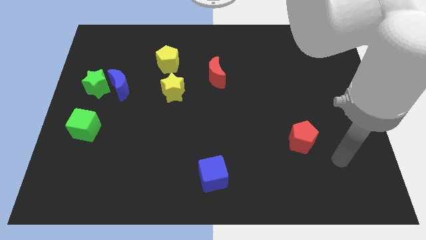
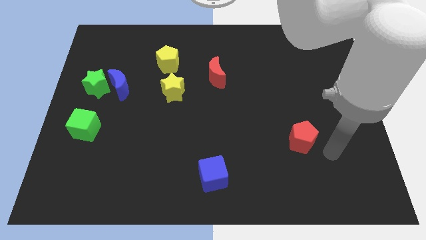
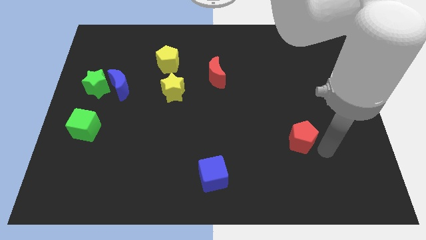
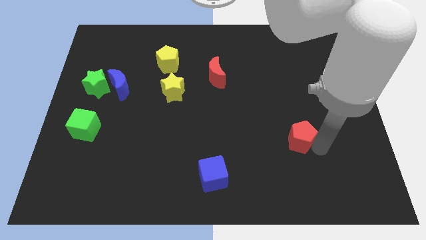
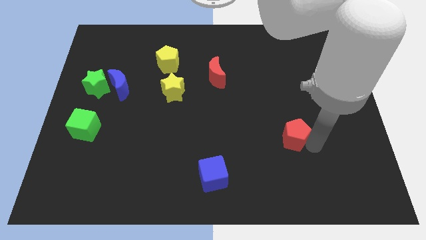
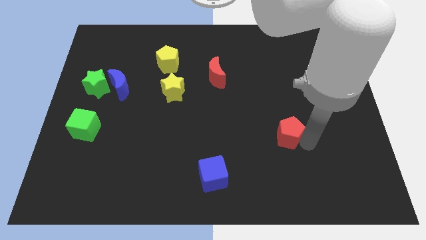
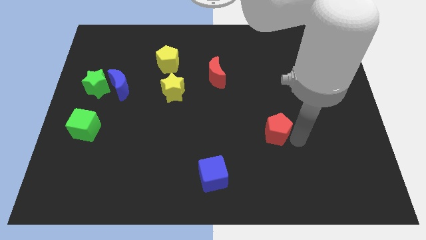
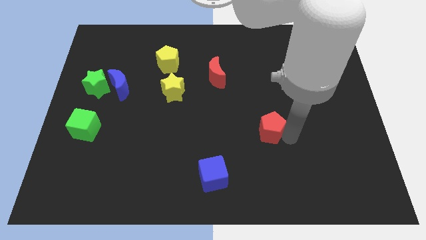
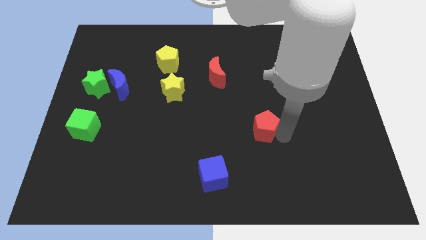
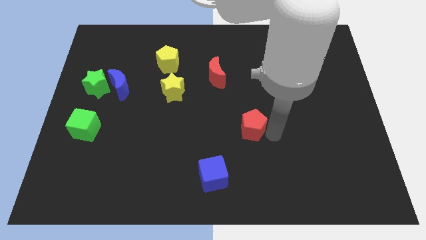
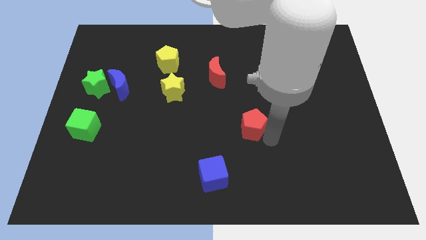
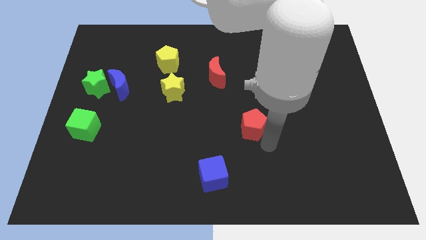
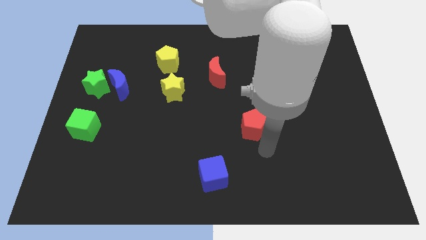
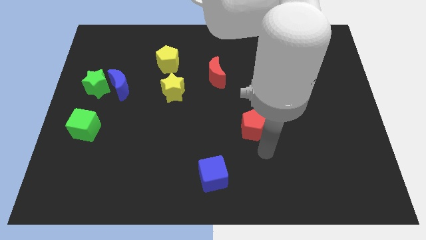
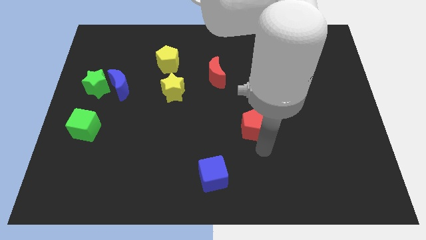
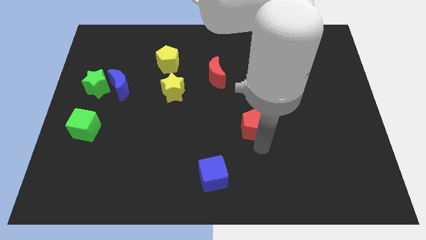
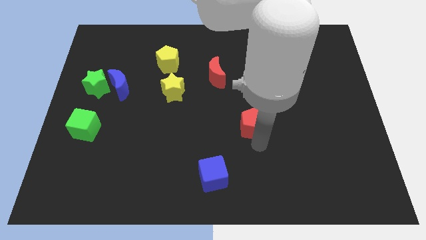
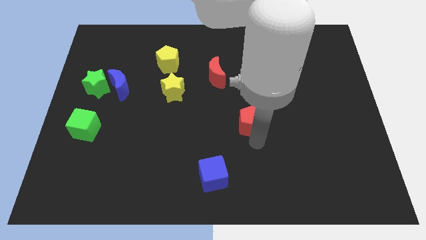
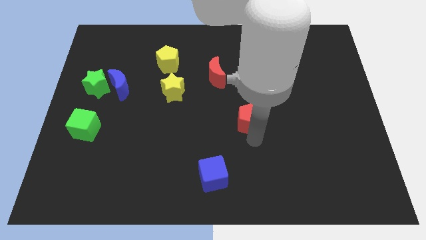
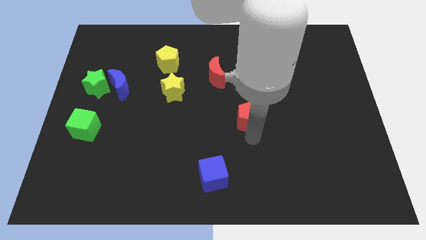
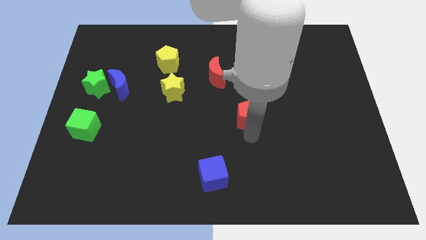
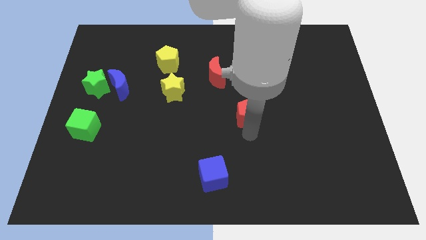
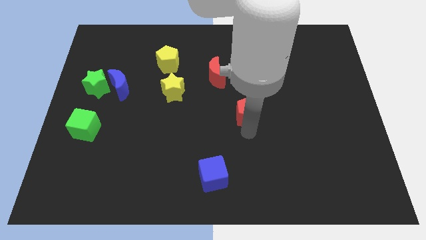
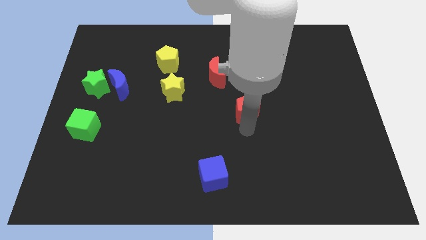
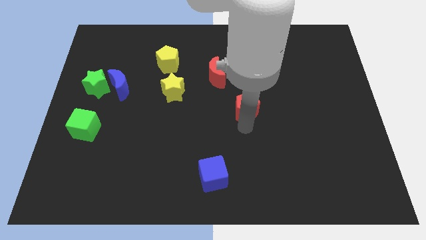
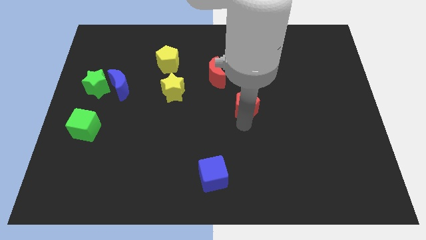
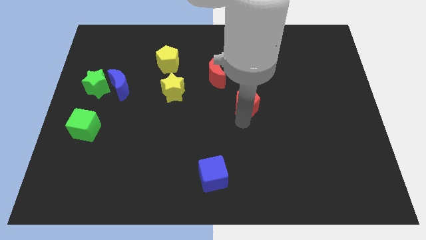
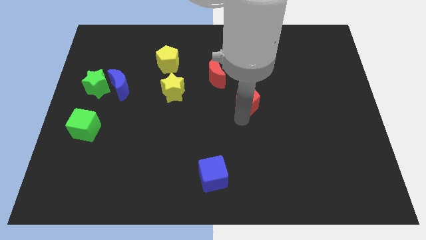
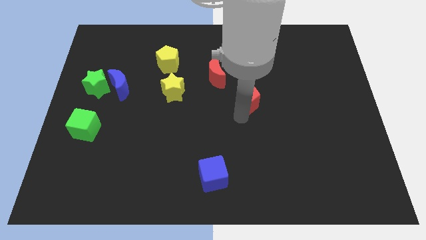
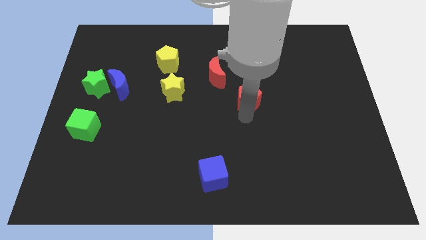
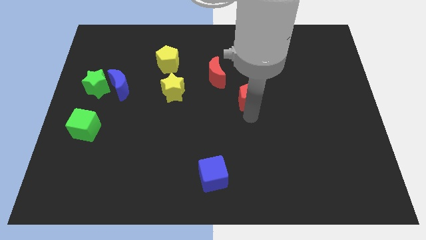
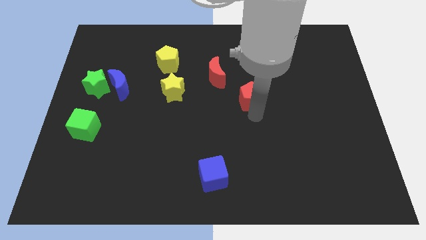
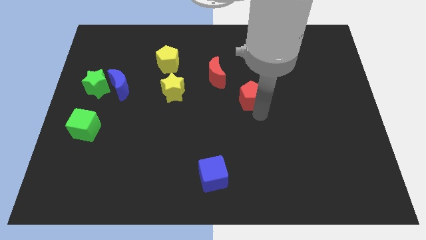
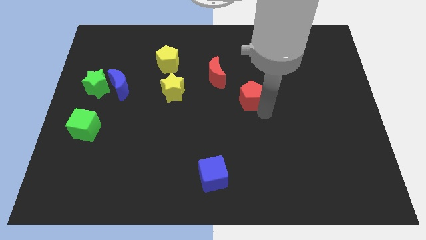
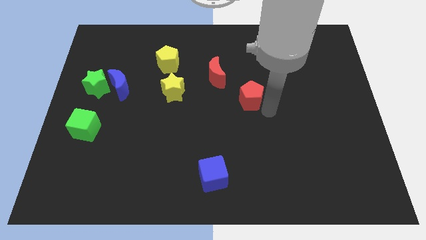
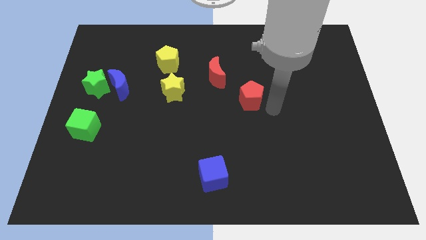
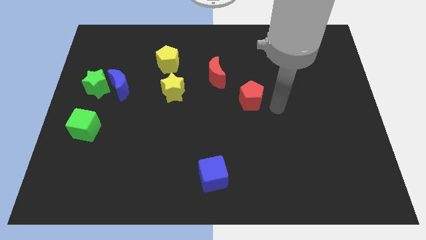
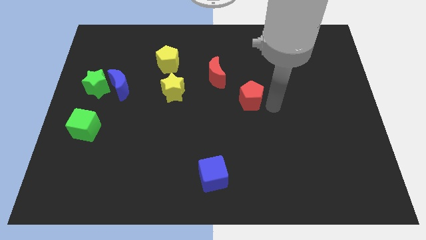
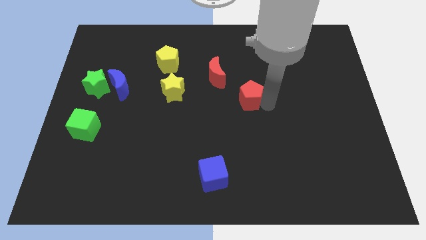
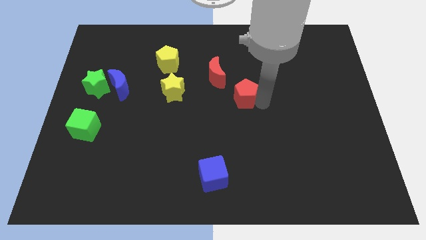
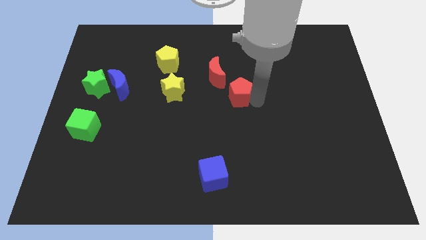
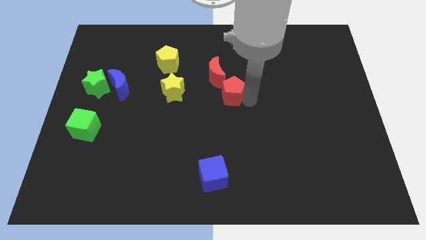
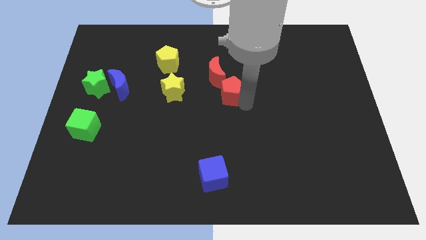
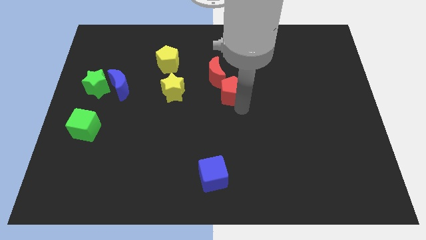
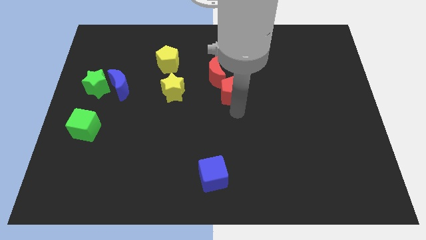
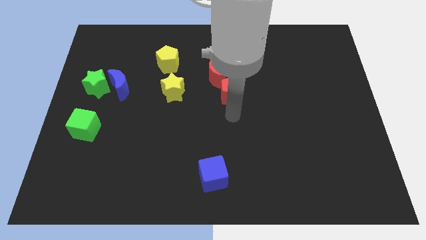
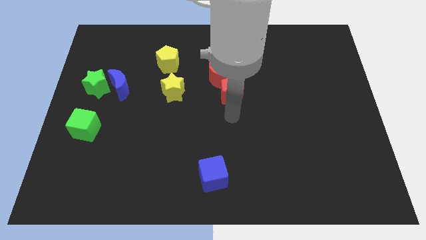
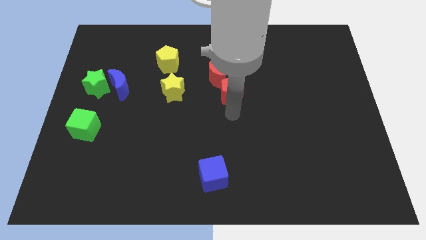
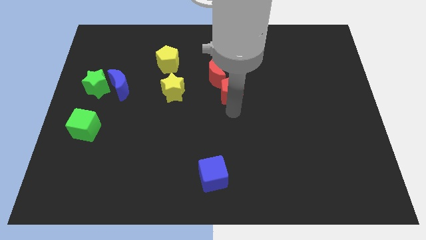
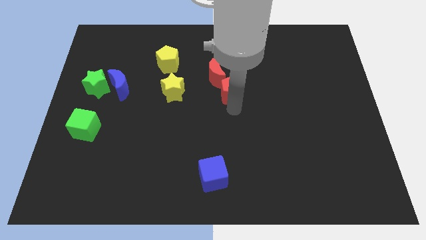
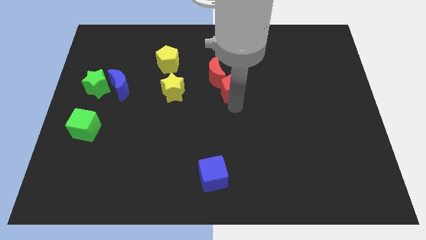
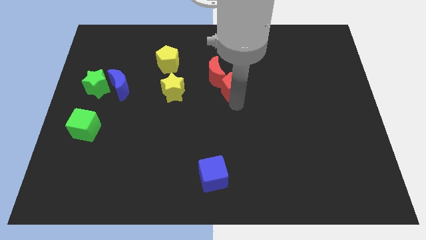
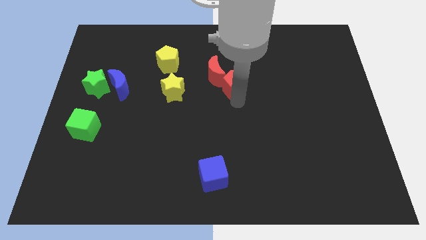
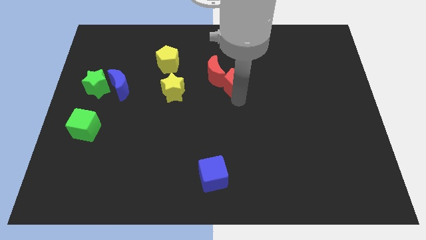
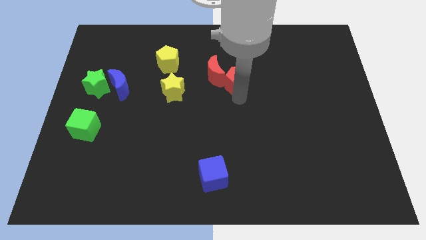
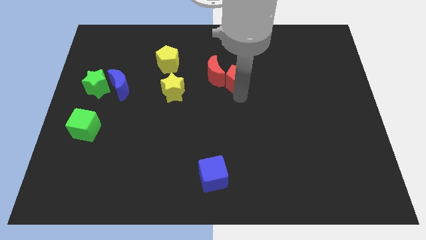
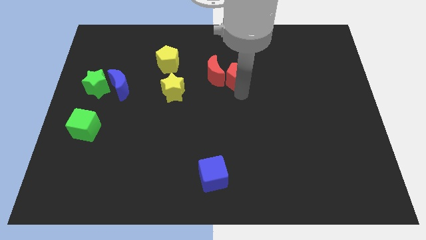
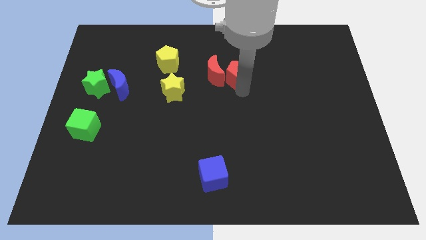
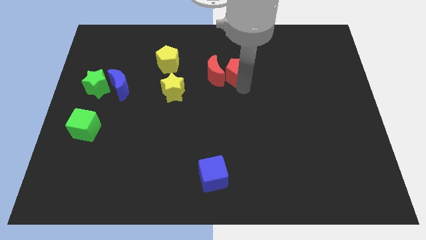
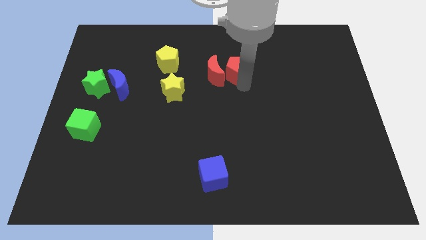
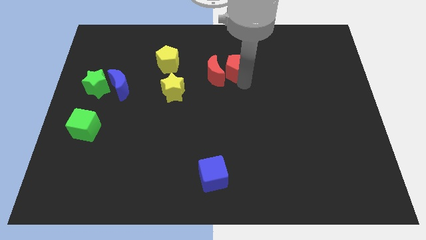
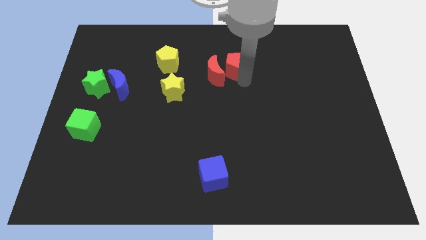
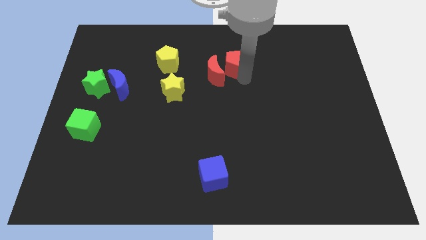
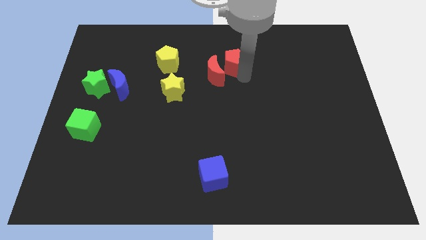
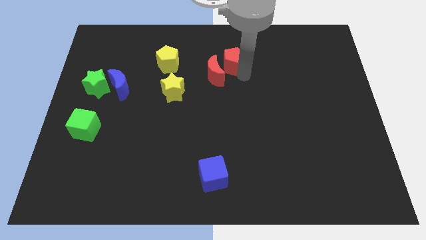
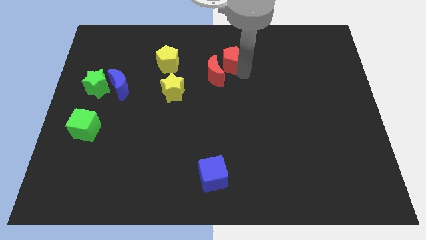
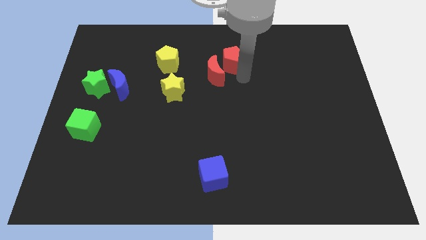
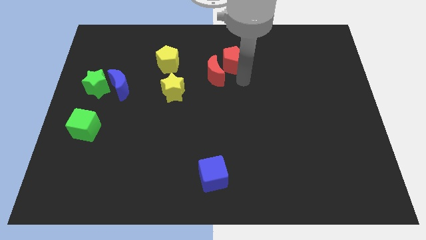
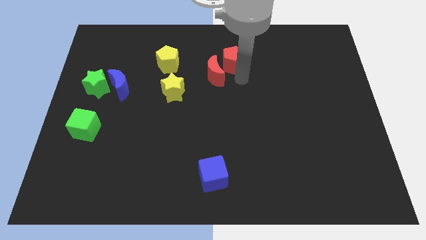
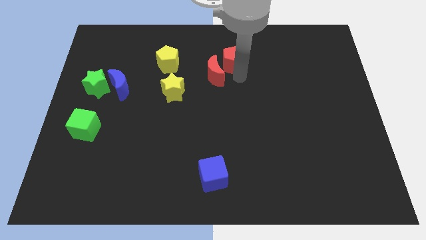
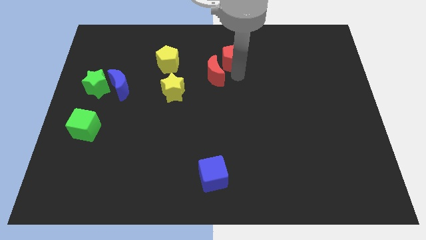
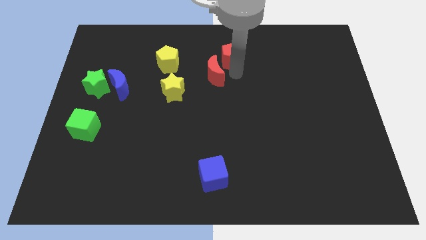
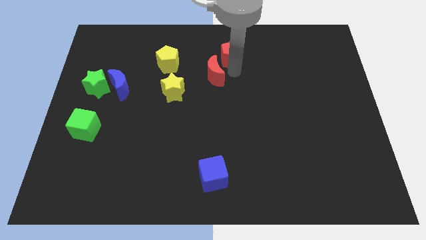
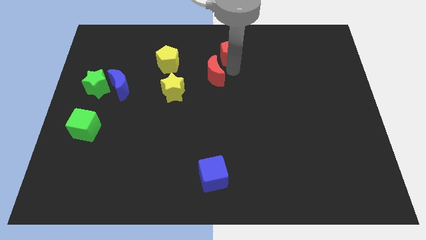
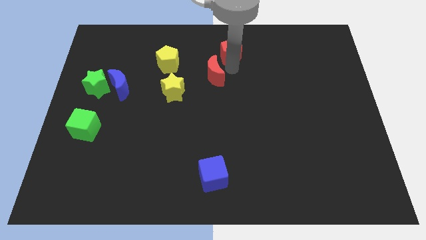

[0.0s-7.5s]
slide the red pentagon to the towards your base
